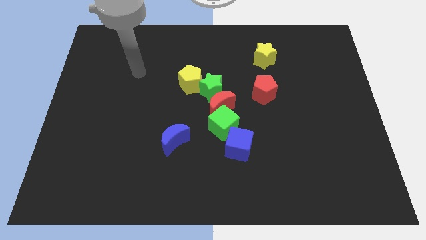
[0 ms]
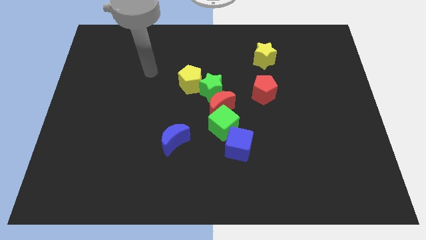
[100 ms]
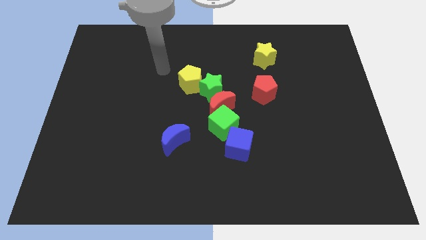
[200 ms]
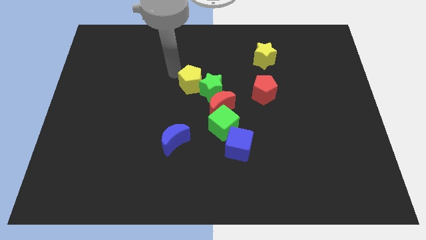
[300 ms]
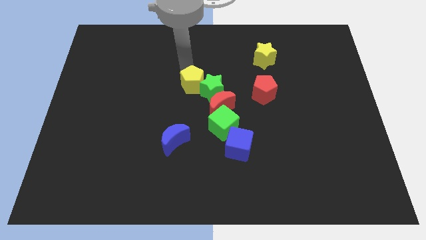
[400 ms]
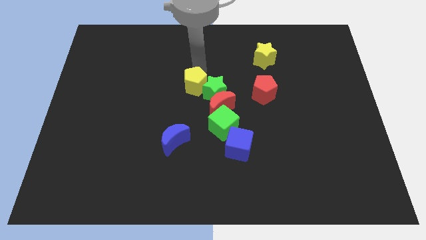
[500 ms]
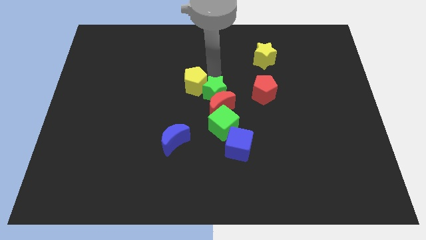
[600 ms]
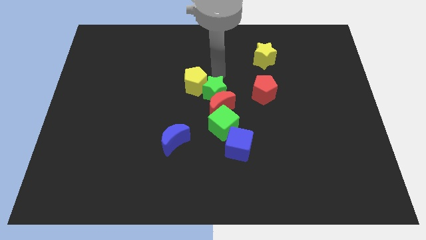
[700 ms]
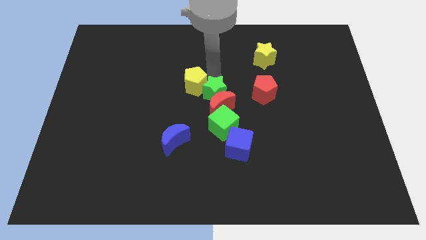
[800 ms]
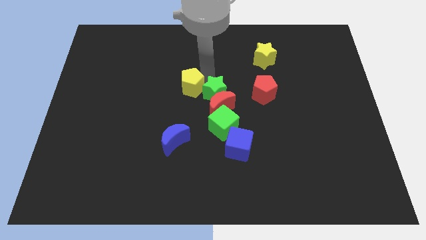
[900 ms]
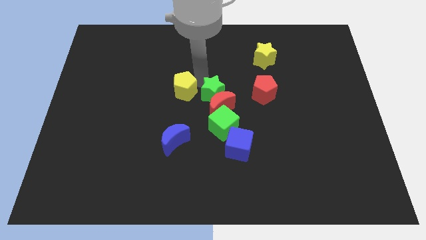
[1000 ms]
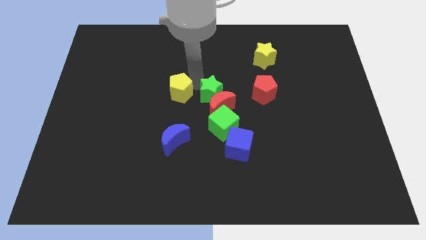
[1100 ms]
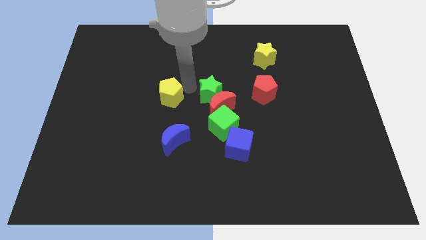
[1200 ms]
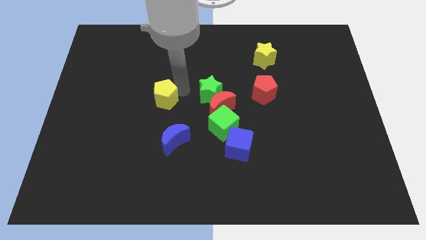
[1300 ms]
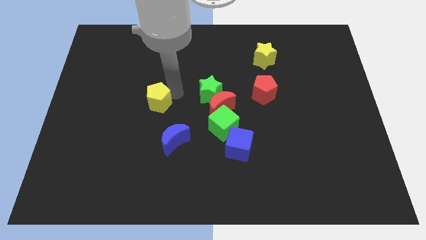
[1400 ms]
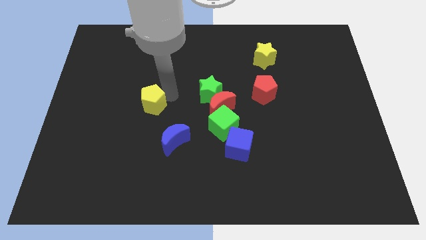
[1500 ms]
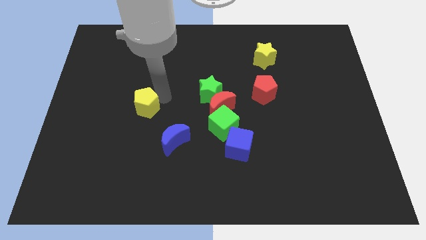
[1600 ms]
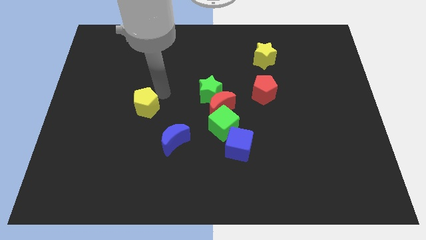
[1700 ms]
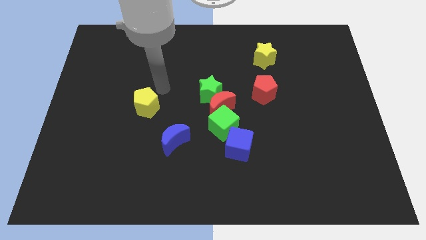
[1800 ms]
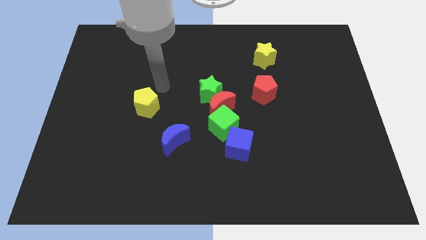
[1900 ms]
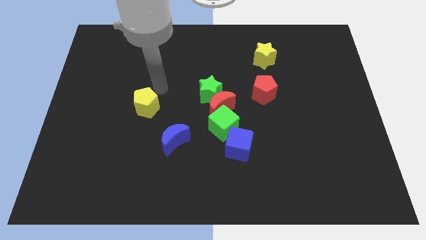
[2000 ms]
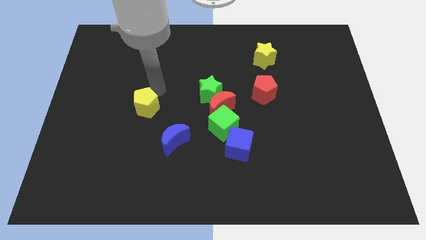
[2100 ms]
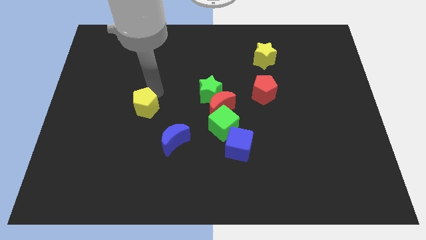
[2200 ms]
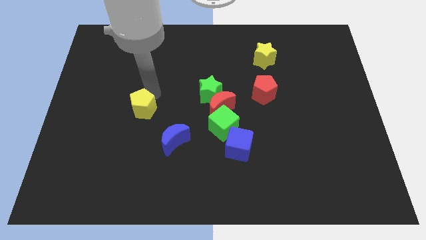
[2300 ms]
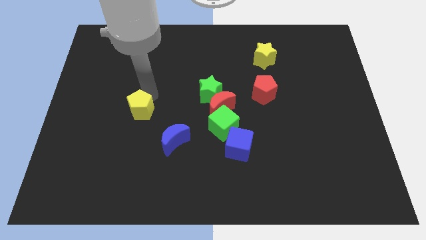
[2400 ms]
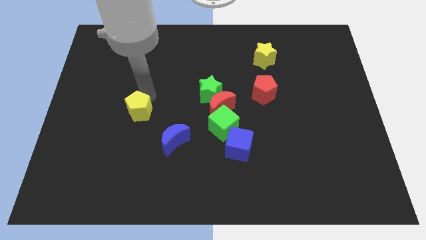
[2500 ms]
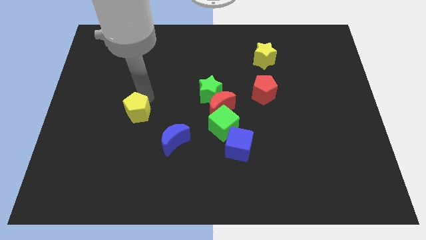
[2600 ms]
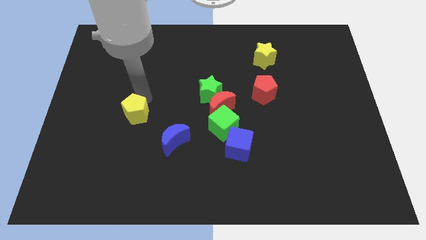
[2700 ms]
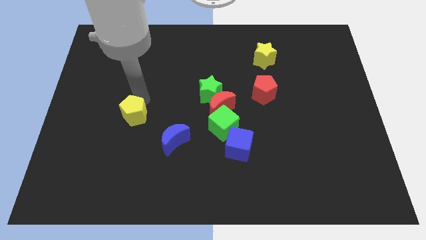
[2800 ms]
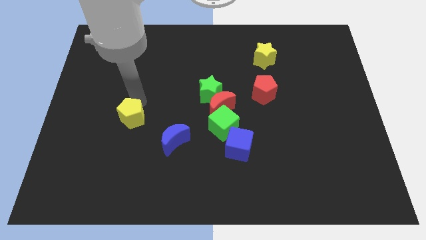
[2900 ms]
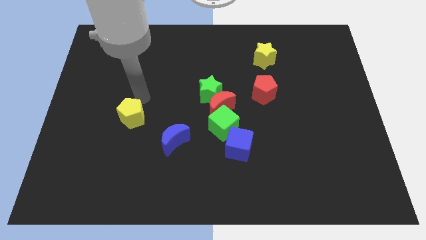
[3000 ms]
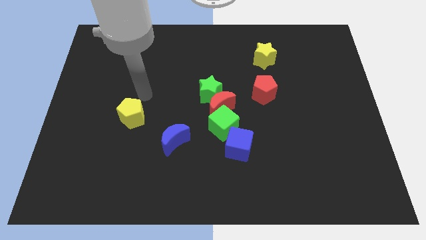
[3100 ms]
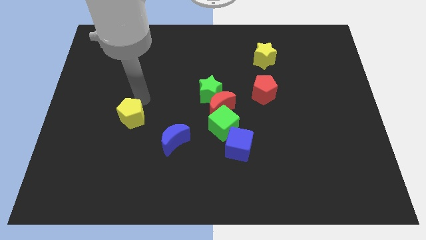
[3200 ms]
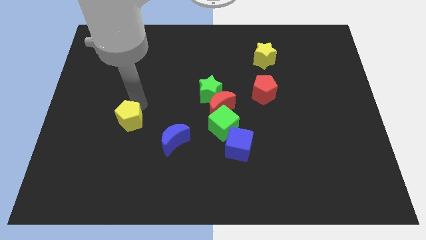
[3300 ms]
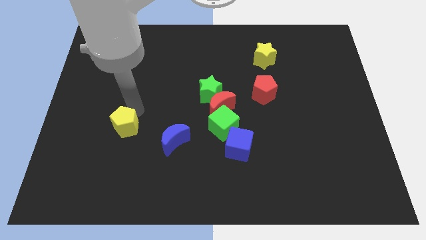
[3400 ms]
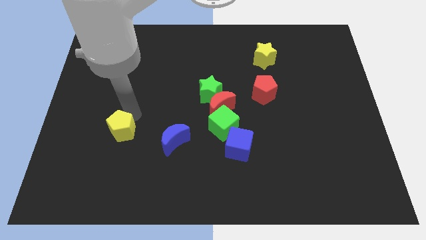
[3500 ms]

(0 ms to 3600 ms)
move the yellow pentagon diagonally downwards and to the left

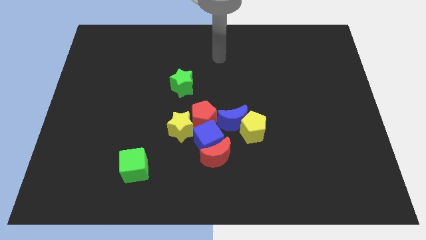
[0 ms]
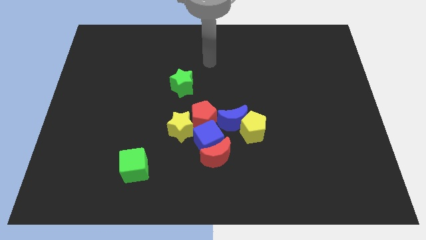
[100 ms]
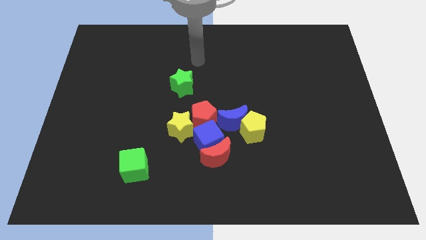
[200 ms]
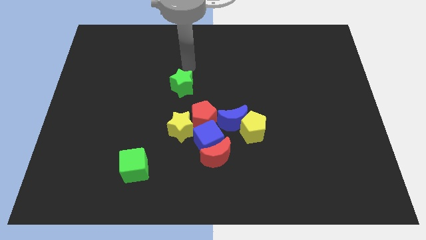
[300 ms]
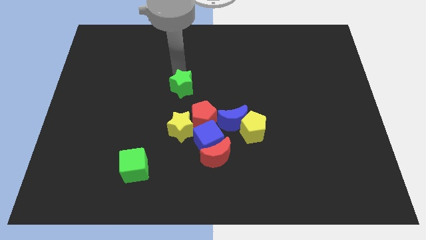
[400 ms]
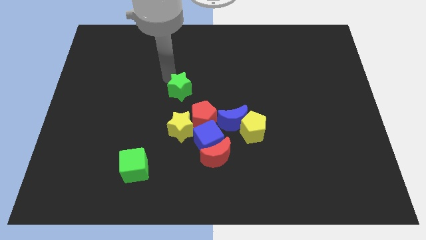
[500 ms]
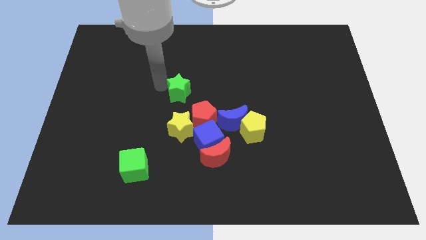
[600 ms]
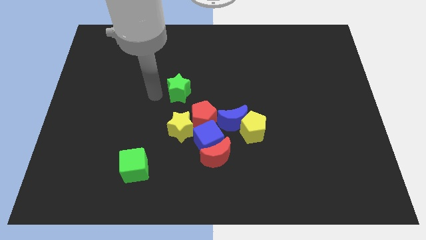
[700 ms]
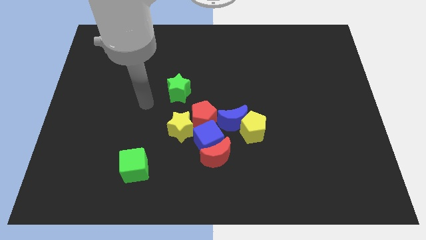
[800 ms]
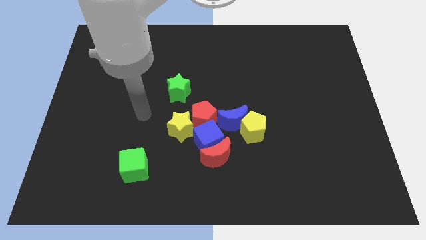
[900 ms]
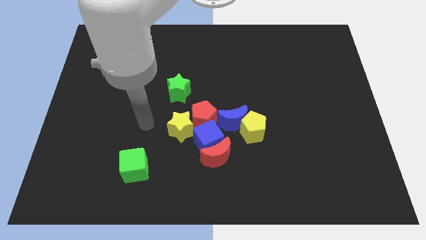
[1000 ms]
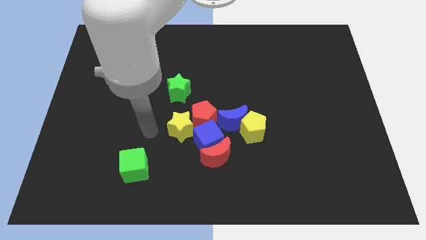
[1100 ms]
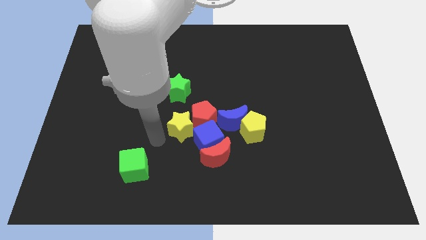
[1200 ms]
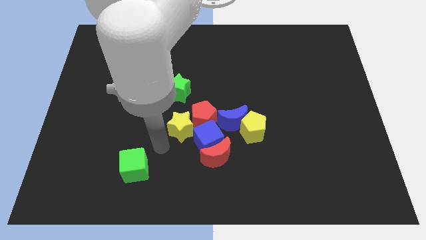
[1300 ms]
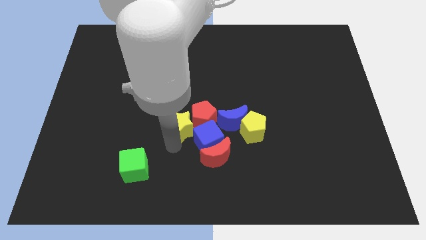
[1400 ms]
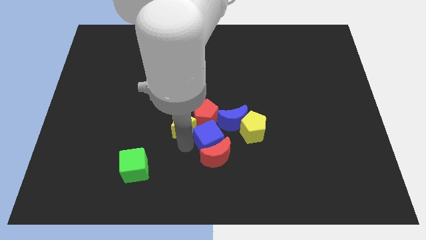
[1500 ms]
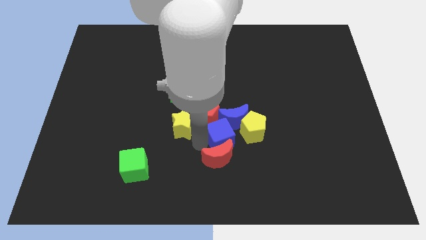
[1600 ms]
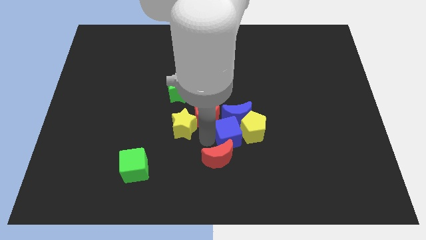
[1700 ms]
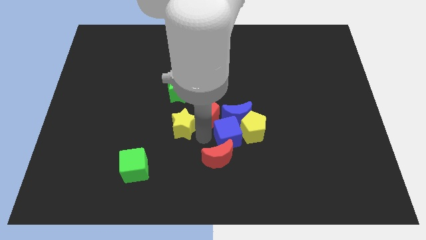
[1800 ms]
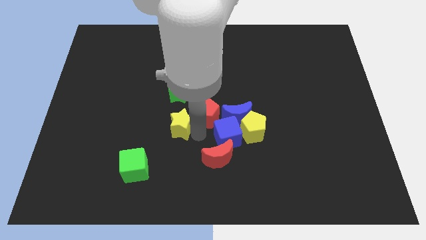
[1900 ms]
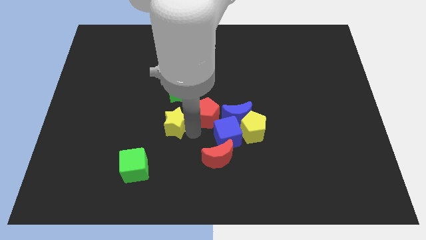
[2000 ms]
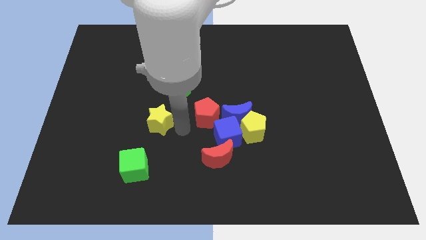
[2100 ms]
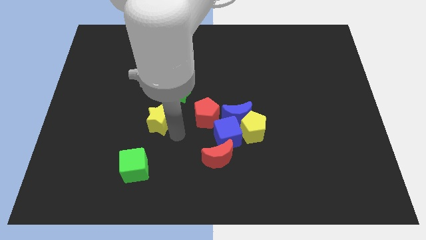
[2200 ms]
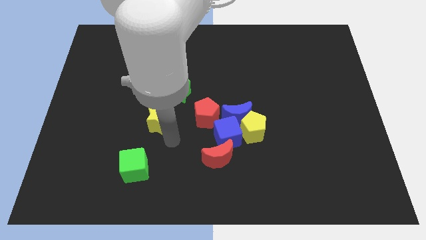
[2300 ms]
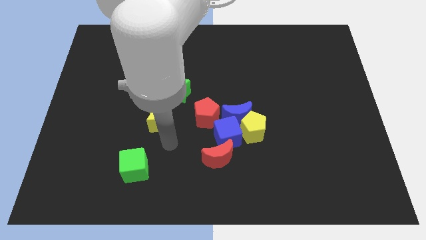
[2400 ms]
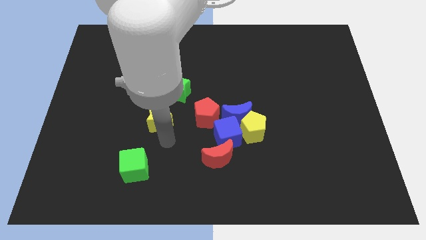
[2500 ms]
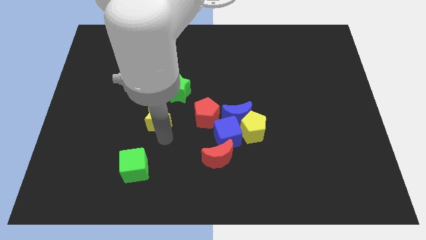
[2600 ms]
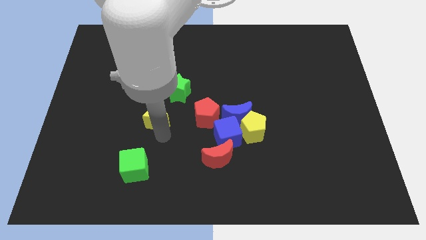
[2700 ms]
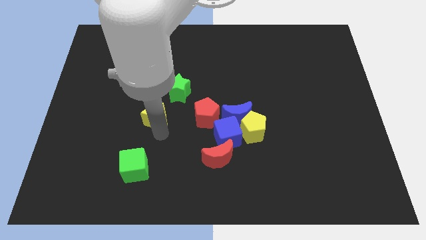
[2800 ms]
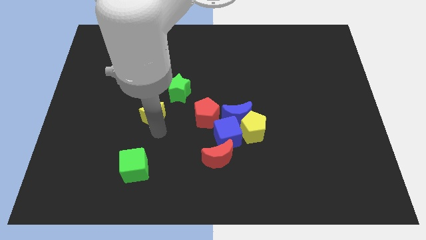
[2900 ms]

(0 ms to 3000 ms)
slide the yellow star a bit up and to the left diagonally

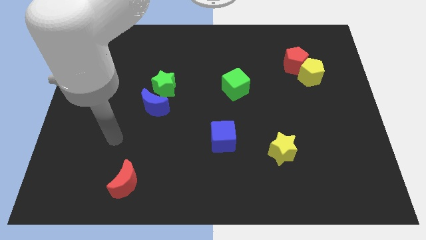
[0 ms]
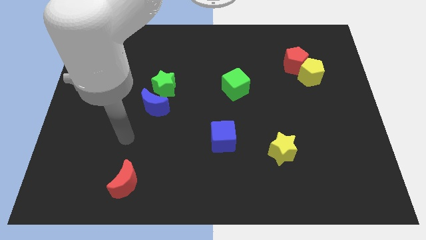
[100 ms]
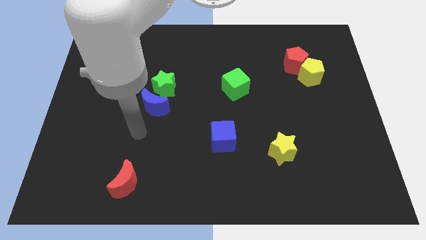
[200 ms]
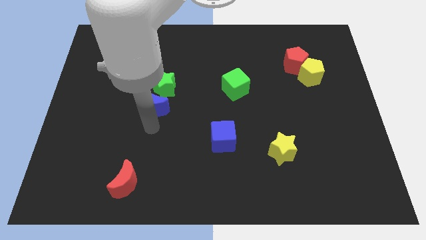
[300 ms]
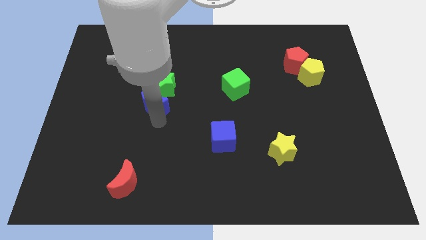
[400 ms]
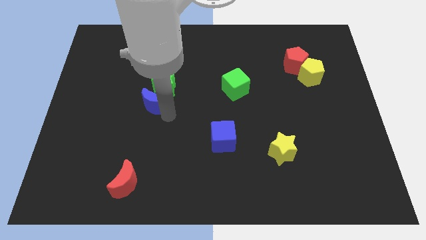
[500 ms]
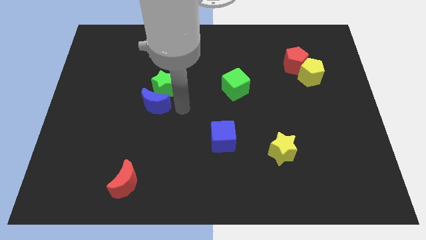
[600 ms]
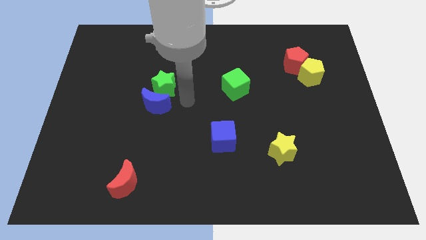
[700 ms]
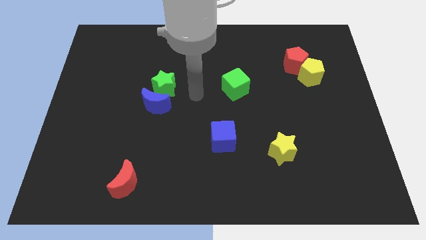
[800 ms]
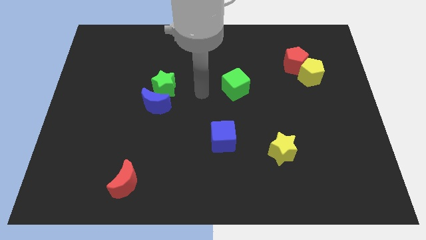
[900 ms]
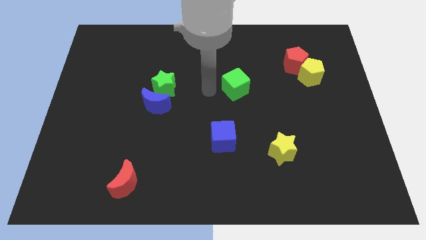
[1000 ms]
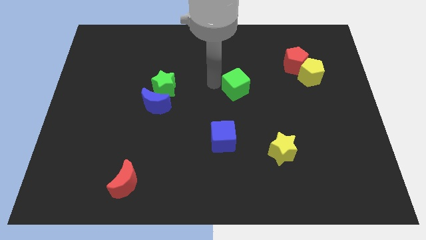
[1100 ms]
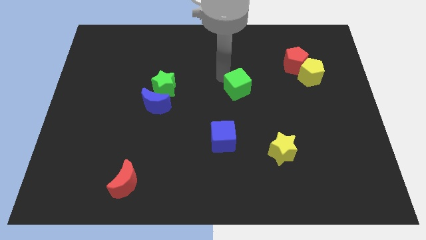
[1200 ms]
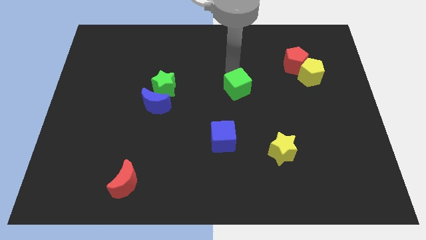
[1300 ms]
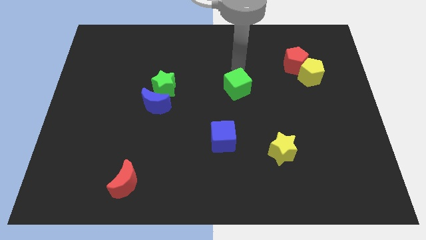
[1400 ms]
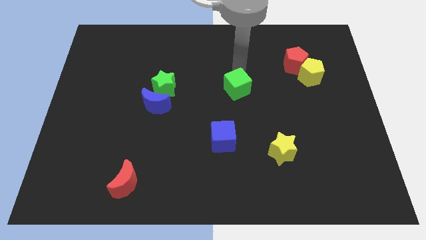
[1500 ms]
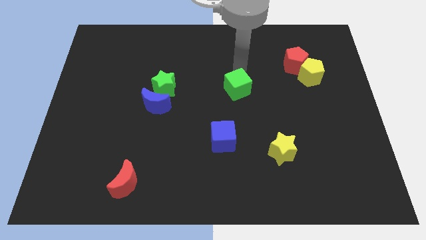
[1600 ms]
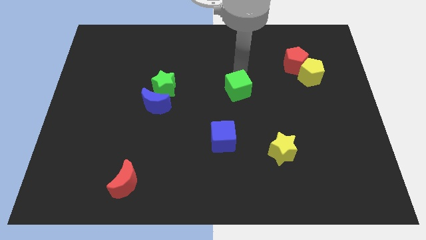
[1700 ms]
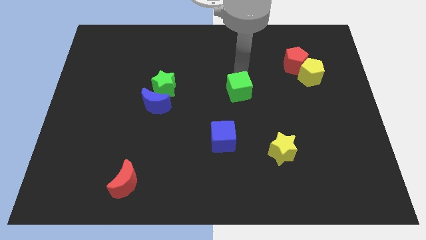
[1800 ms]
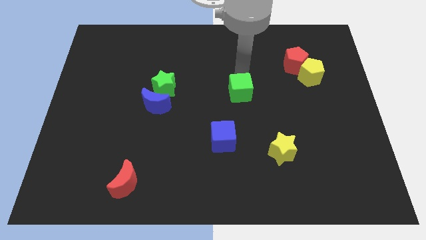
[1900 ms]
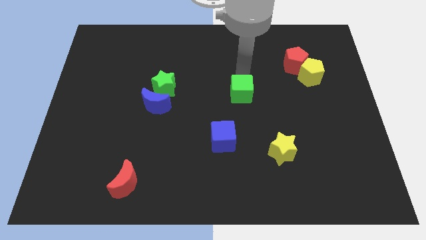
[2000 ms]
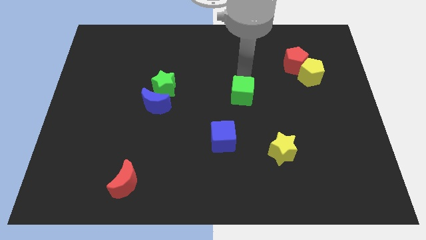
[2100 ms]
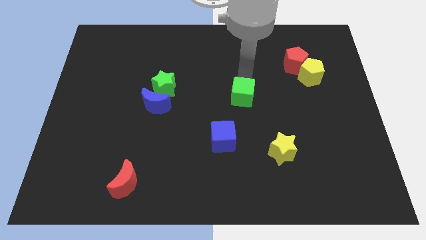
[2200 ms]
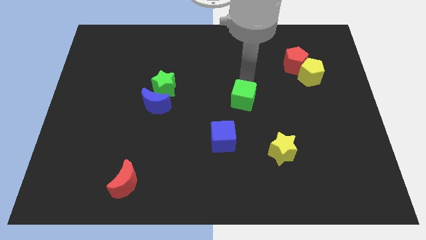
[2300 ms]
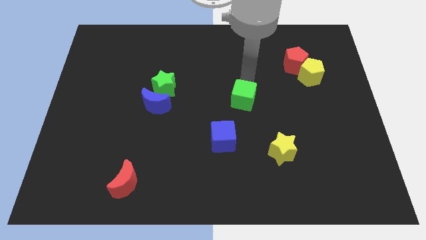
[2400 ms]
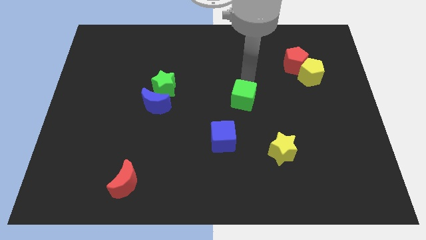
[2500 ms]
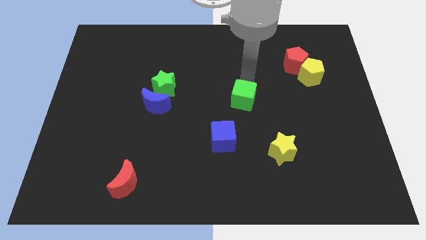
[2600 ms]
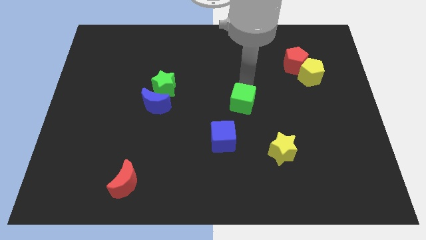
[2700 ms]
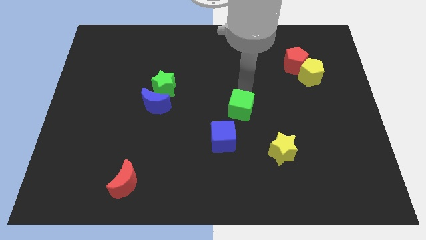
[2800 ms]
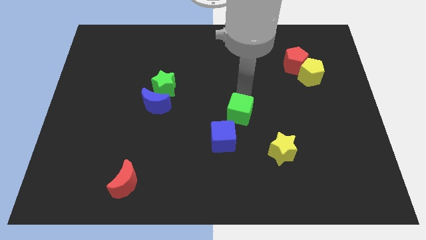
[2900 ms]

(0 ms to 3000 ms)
slide the green cube down somewhat
